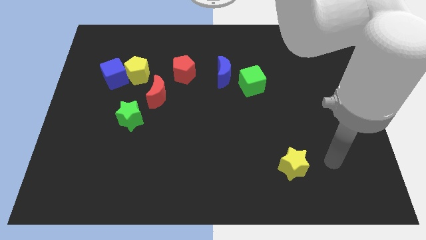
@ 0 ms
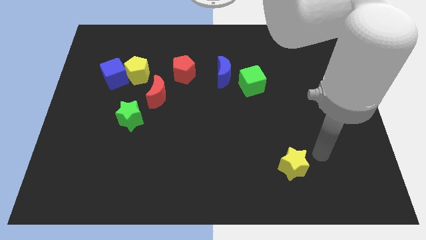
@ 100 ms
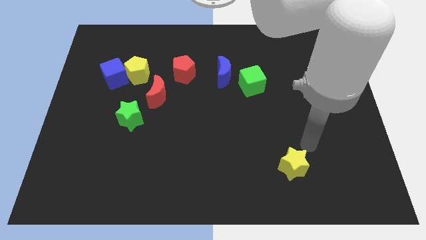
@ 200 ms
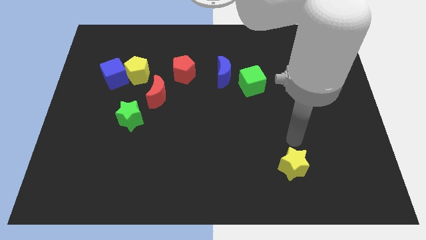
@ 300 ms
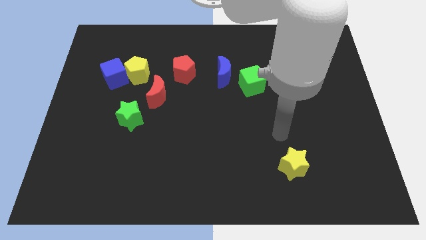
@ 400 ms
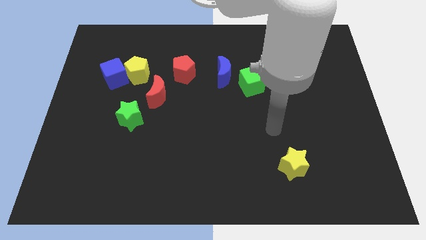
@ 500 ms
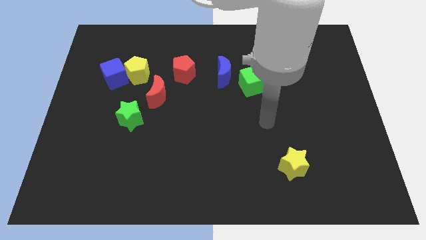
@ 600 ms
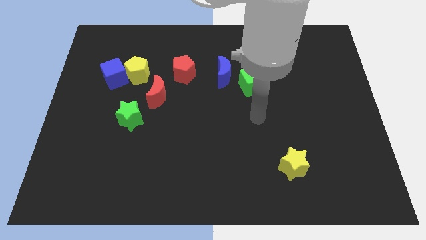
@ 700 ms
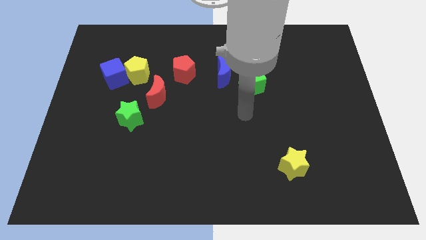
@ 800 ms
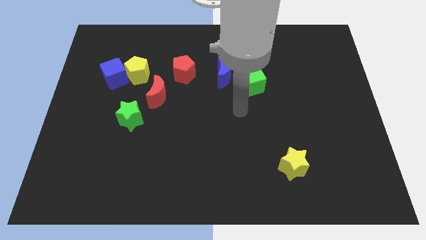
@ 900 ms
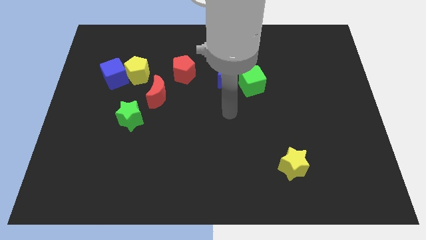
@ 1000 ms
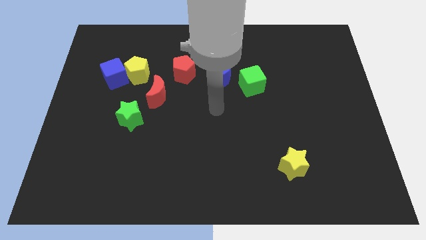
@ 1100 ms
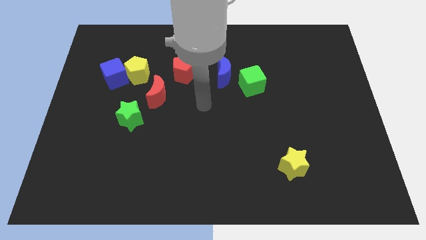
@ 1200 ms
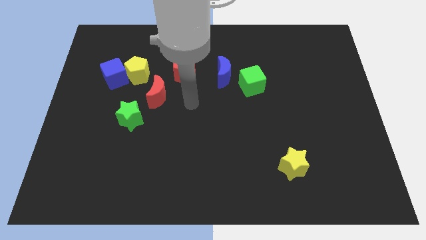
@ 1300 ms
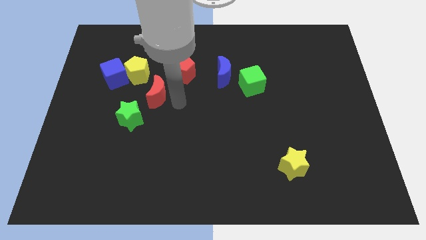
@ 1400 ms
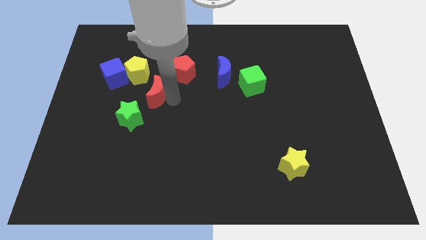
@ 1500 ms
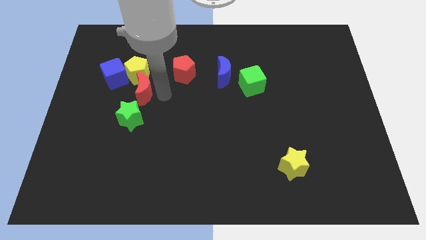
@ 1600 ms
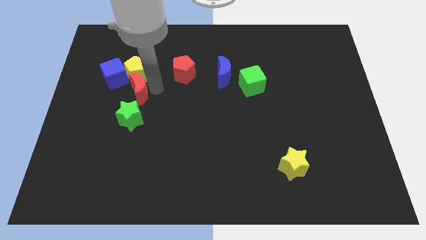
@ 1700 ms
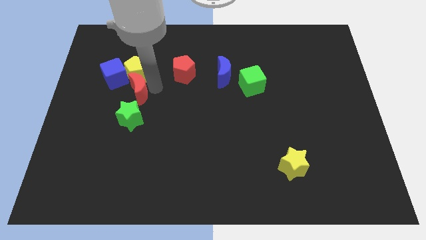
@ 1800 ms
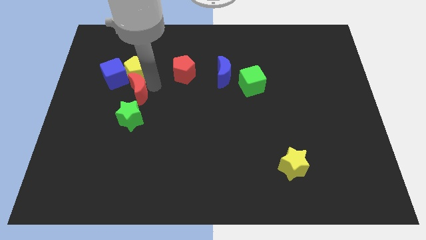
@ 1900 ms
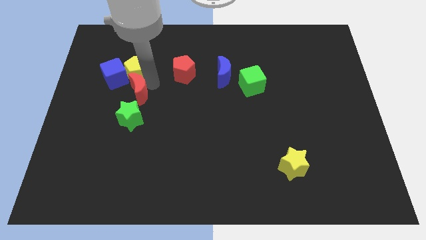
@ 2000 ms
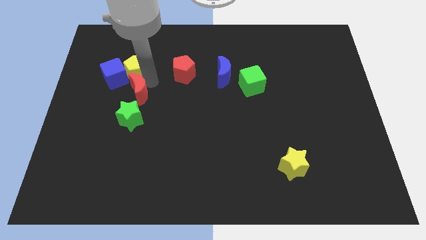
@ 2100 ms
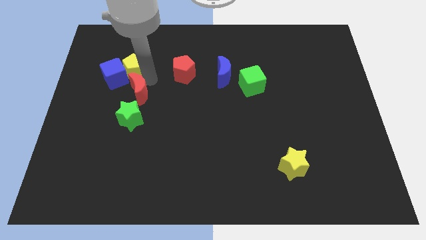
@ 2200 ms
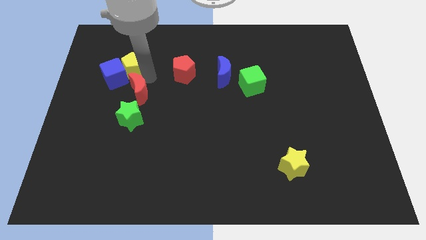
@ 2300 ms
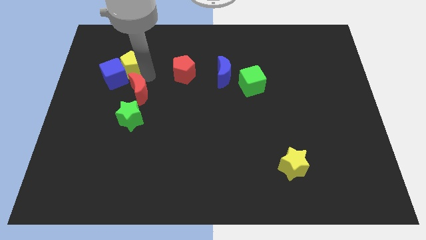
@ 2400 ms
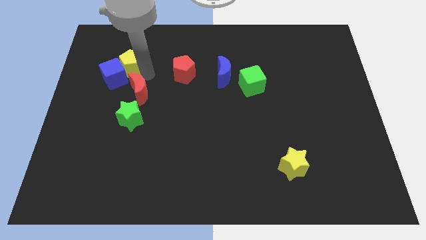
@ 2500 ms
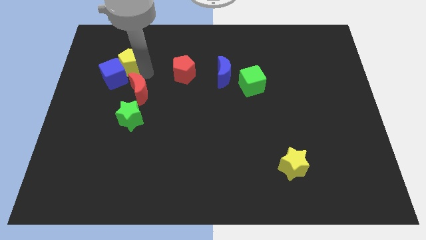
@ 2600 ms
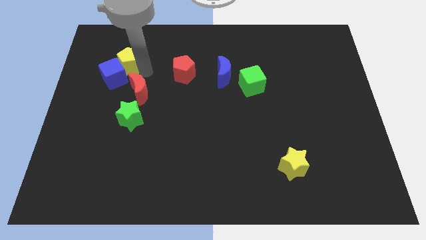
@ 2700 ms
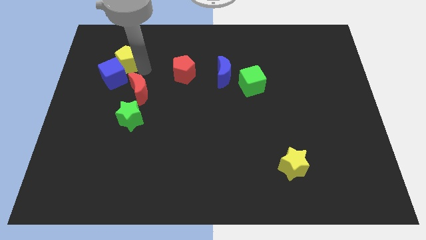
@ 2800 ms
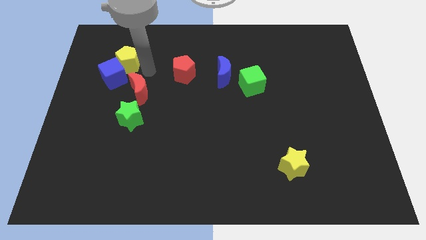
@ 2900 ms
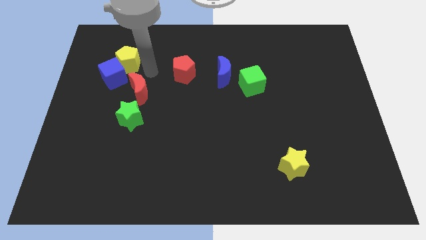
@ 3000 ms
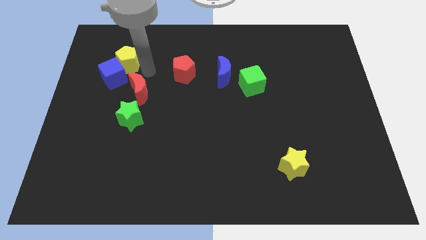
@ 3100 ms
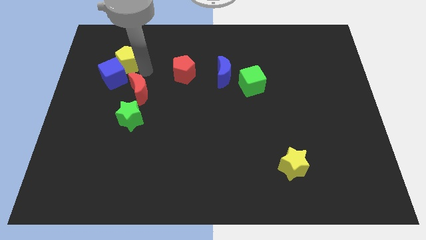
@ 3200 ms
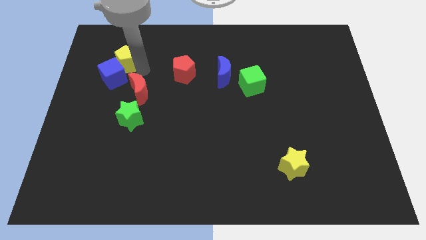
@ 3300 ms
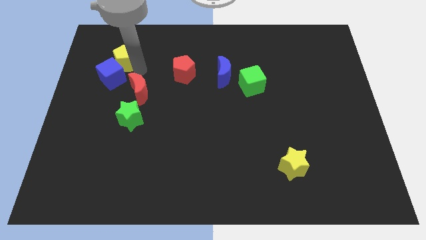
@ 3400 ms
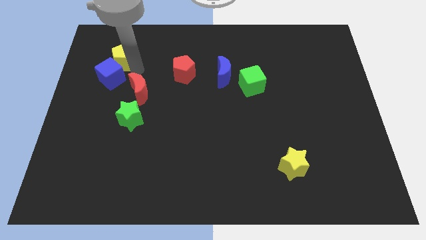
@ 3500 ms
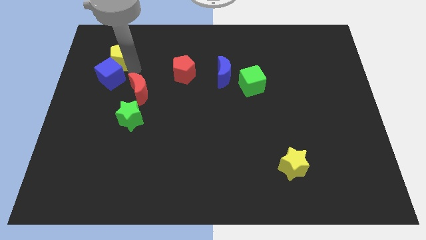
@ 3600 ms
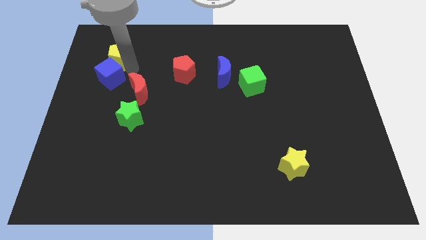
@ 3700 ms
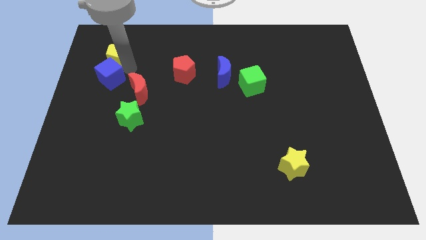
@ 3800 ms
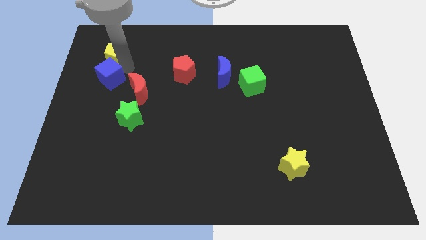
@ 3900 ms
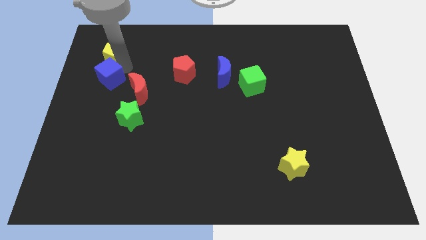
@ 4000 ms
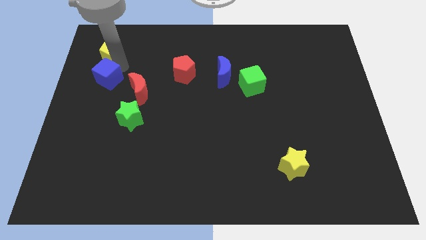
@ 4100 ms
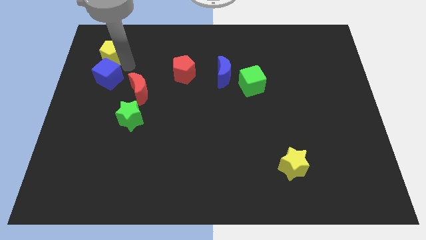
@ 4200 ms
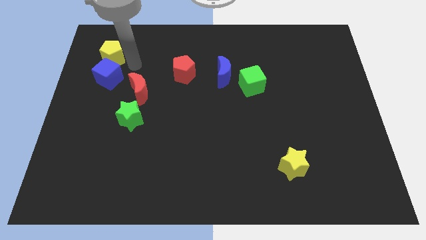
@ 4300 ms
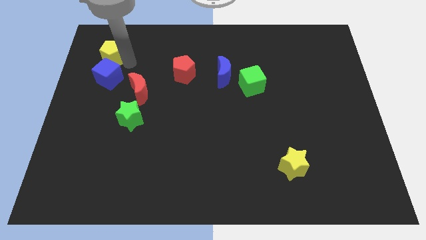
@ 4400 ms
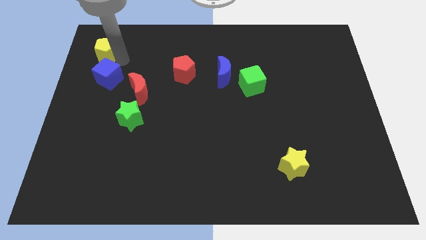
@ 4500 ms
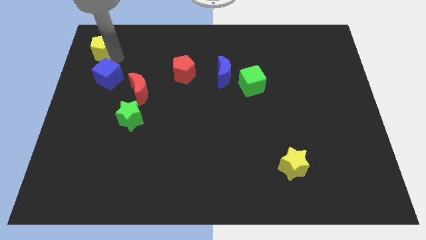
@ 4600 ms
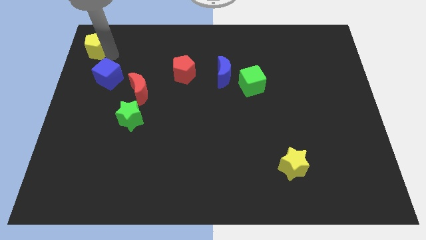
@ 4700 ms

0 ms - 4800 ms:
move the yellow pentagon to the top left of the board

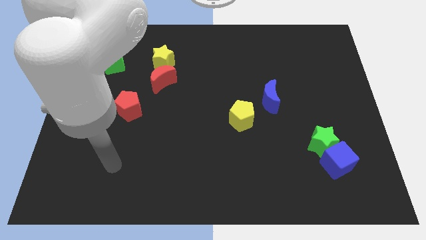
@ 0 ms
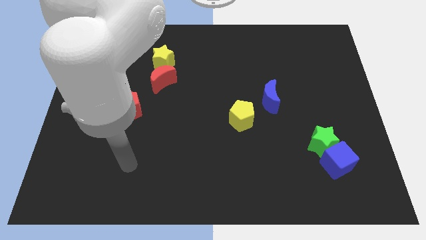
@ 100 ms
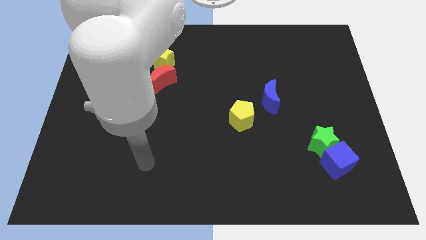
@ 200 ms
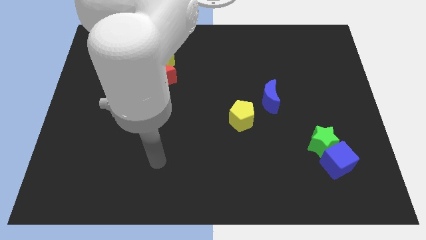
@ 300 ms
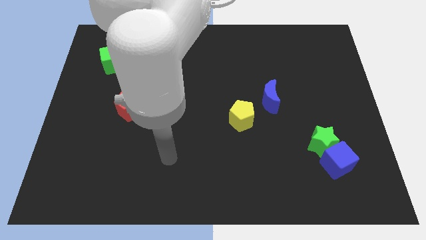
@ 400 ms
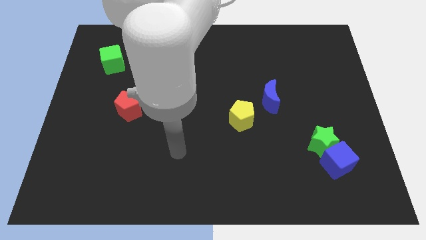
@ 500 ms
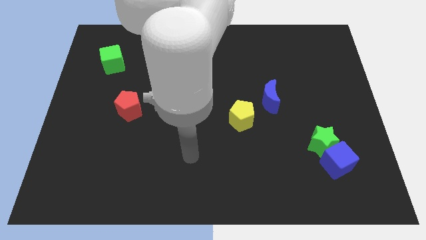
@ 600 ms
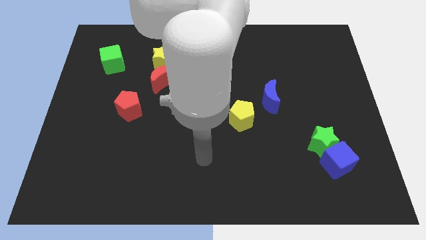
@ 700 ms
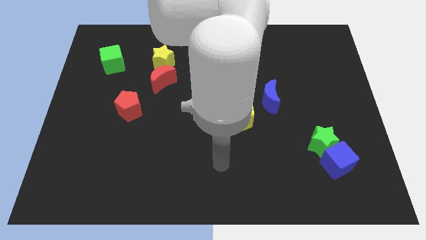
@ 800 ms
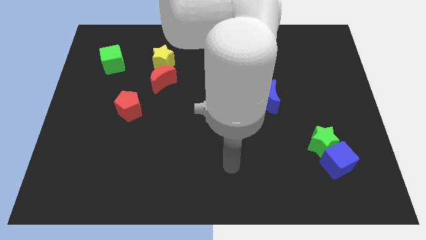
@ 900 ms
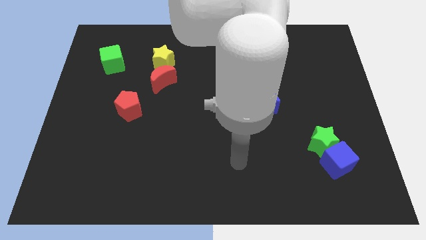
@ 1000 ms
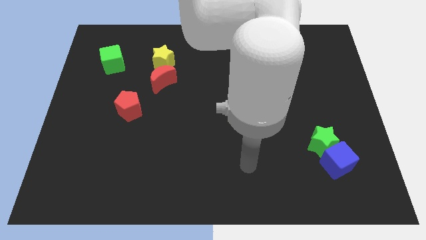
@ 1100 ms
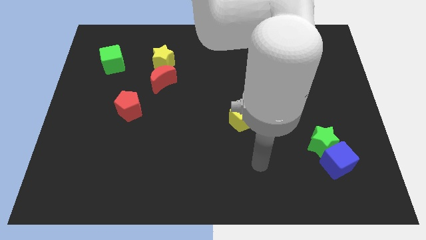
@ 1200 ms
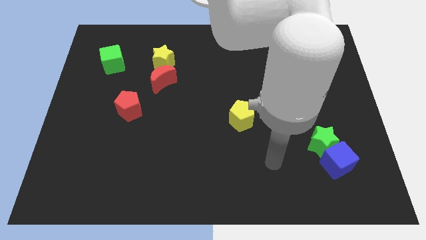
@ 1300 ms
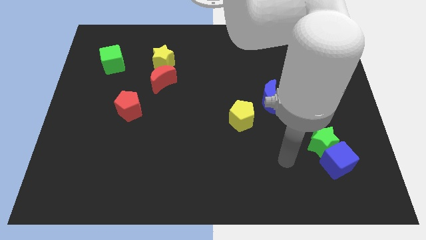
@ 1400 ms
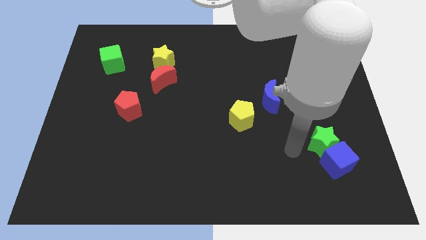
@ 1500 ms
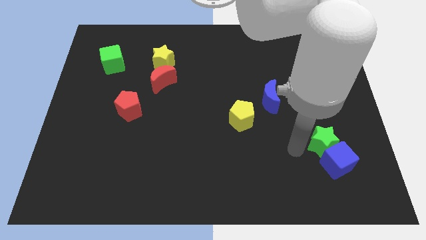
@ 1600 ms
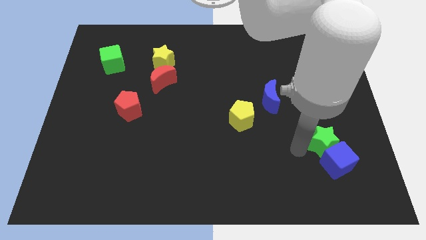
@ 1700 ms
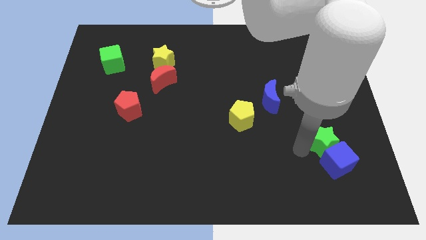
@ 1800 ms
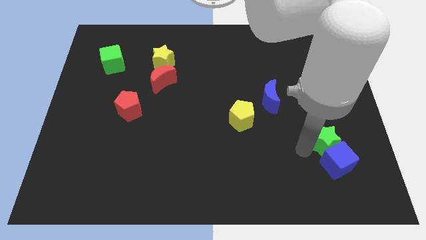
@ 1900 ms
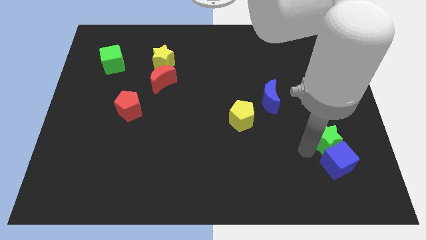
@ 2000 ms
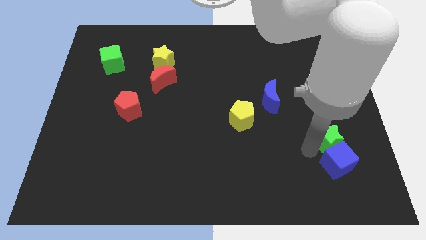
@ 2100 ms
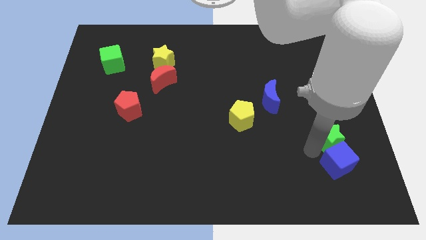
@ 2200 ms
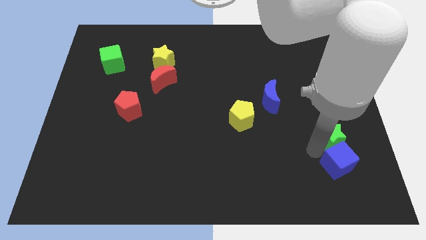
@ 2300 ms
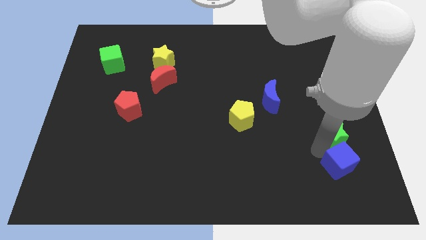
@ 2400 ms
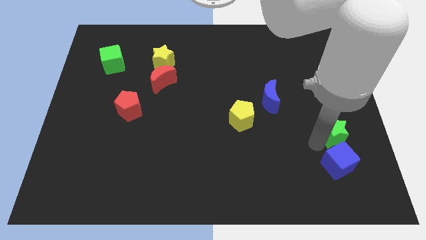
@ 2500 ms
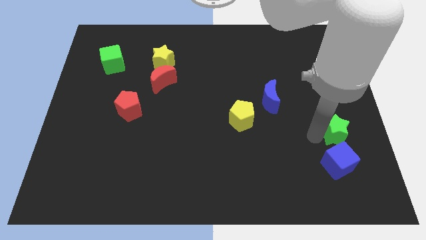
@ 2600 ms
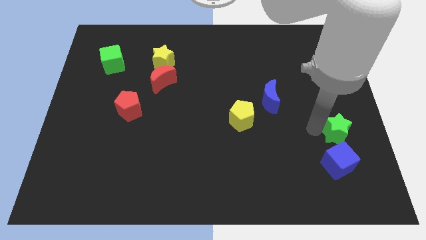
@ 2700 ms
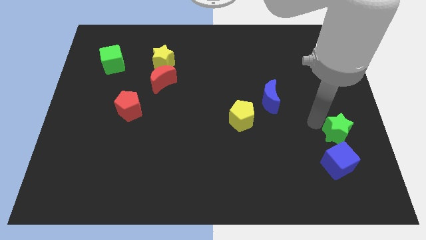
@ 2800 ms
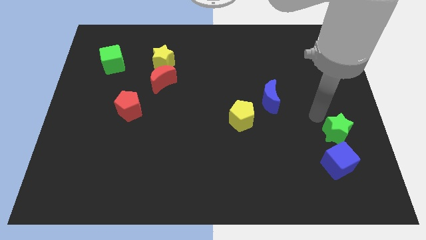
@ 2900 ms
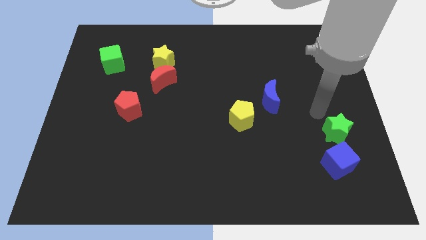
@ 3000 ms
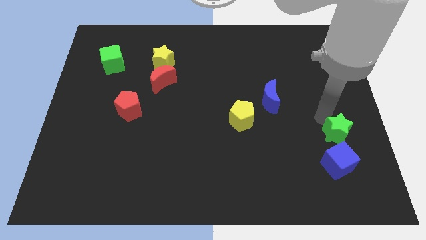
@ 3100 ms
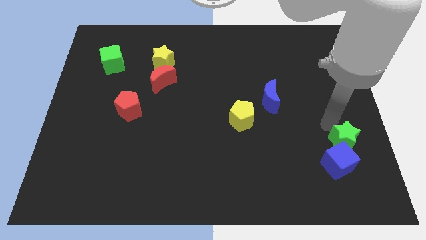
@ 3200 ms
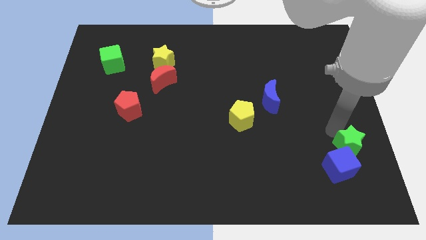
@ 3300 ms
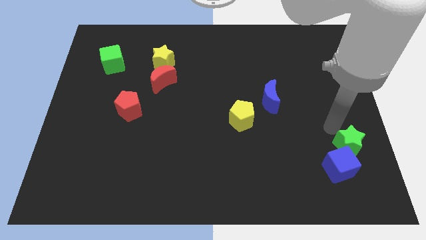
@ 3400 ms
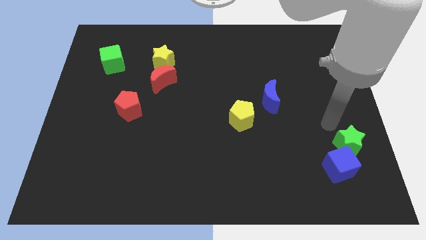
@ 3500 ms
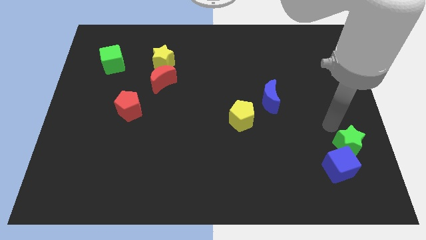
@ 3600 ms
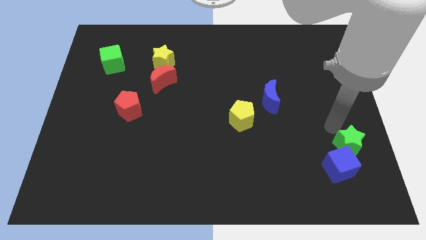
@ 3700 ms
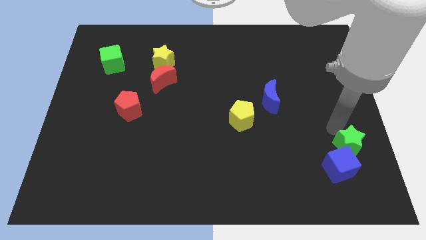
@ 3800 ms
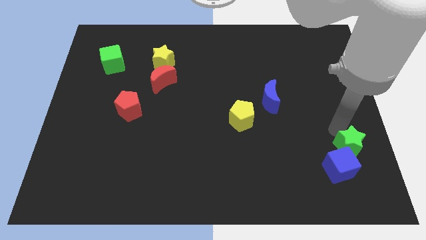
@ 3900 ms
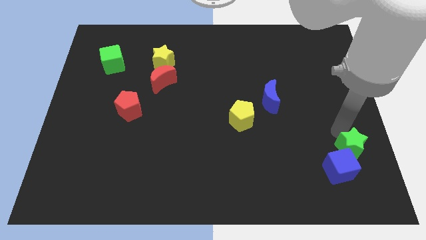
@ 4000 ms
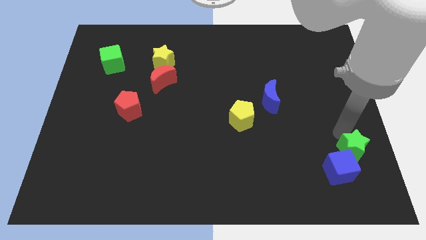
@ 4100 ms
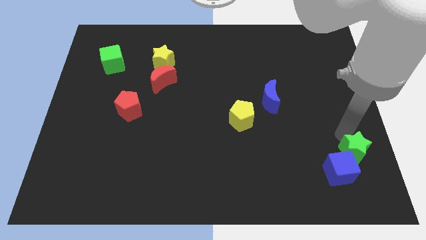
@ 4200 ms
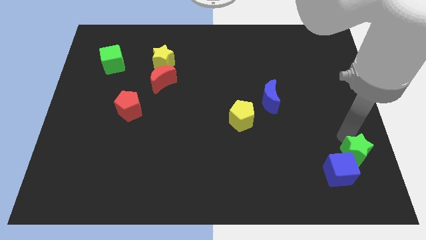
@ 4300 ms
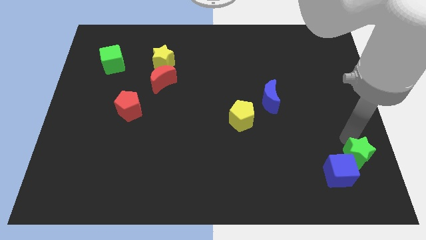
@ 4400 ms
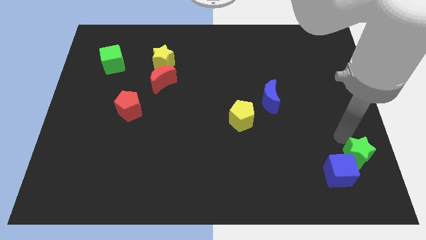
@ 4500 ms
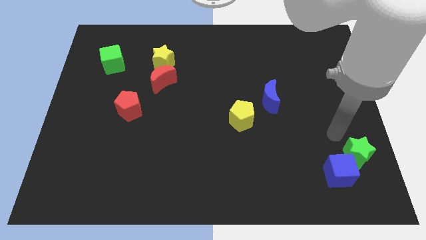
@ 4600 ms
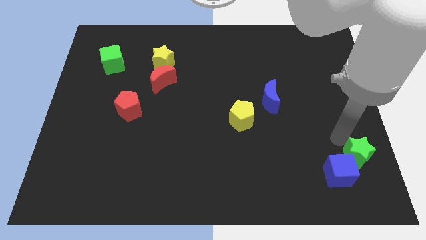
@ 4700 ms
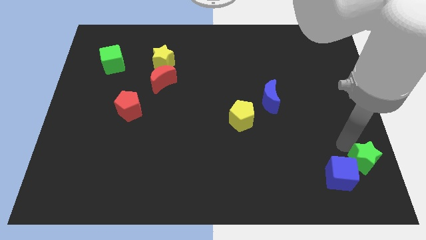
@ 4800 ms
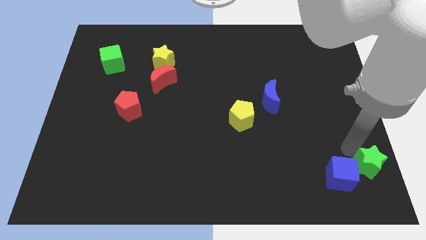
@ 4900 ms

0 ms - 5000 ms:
put the green star to the bottom right corner
